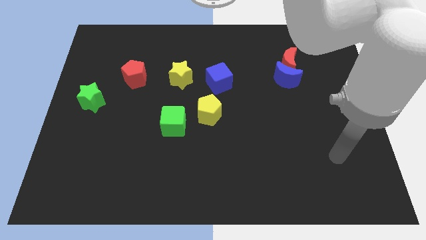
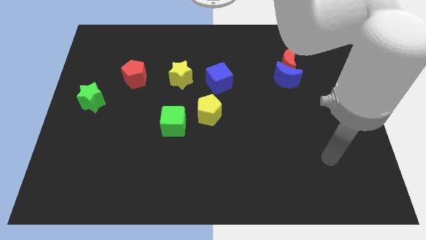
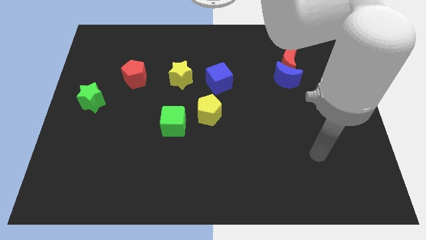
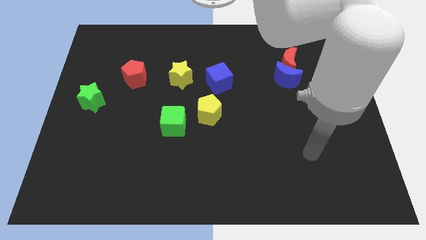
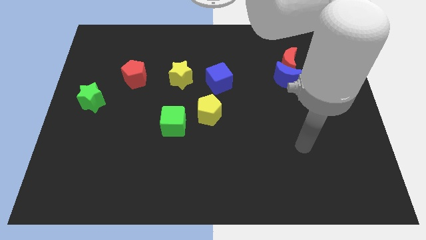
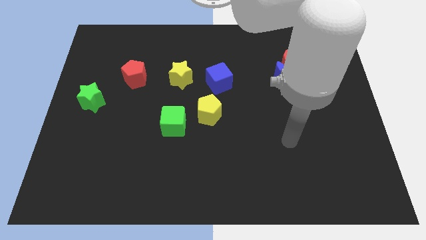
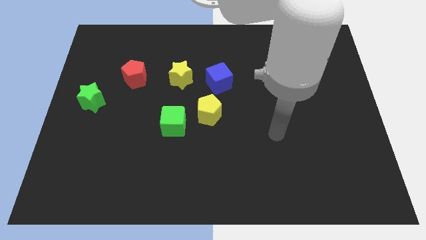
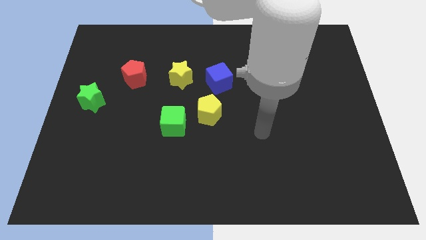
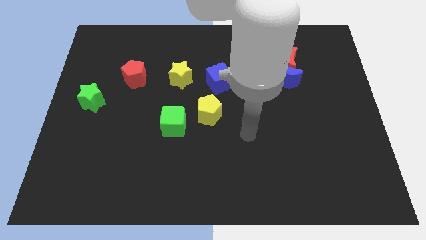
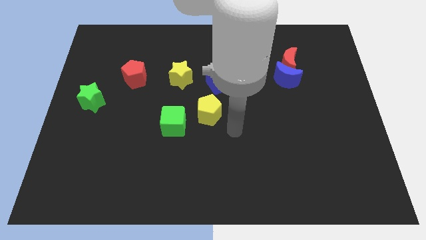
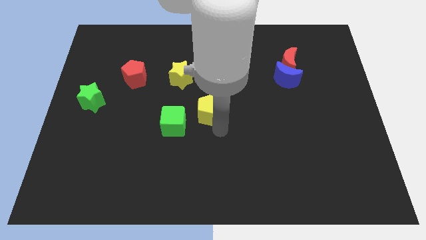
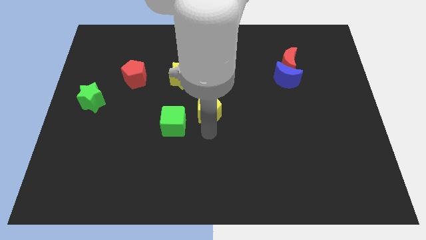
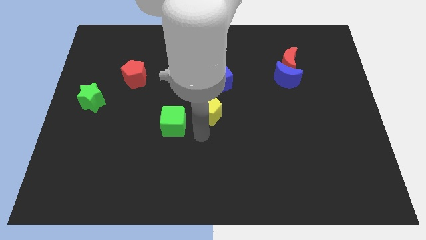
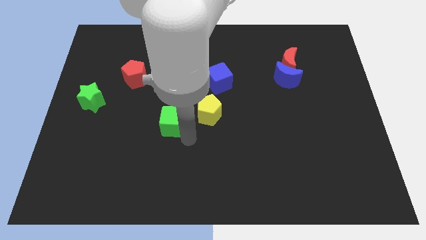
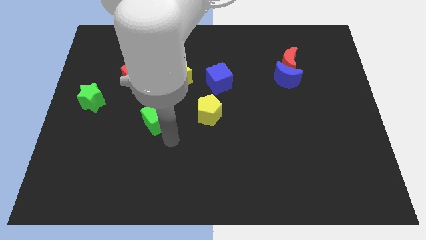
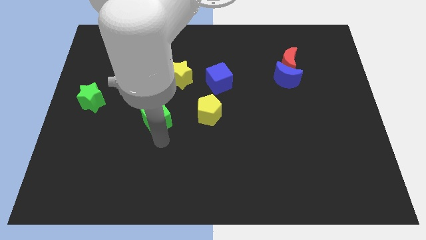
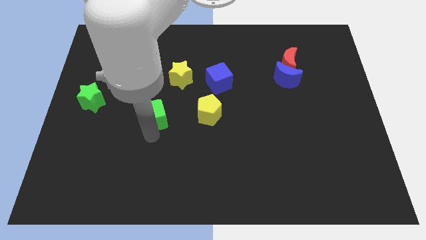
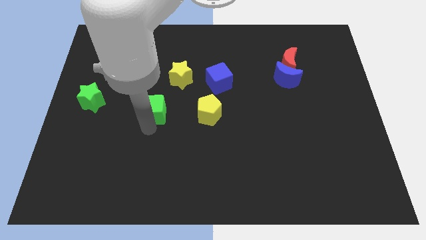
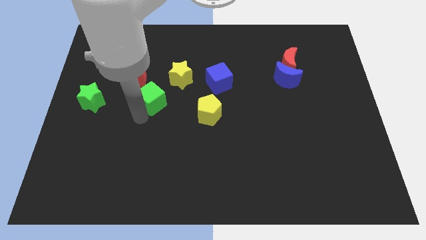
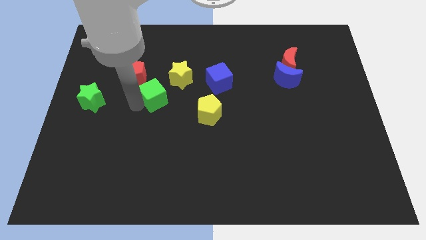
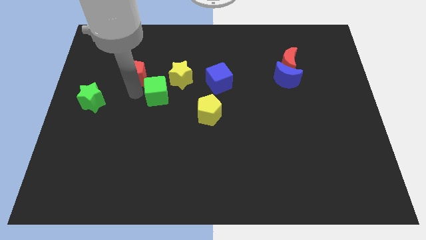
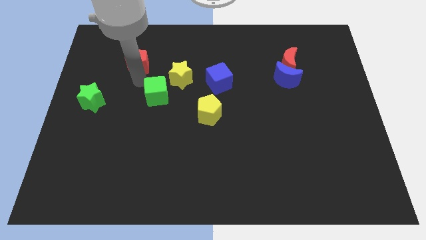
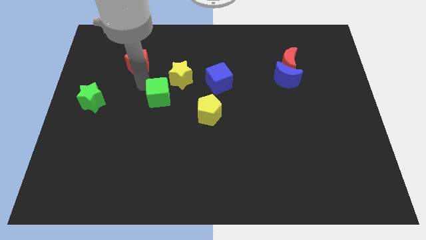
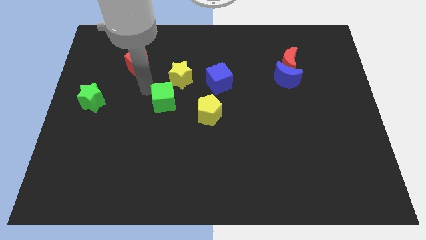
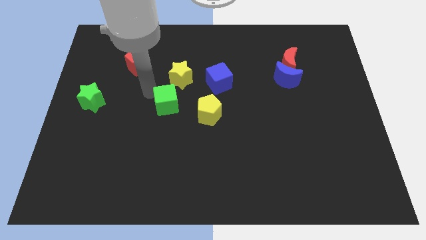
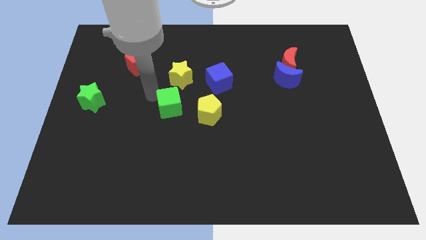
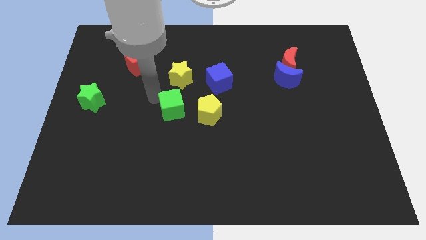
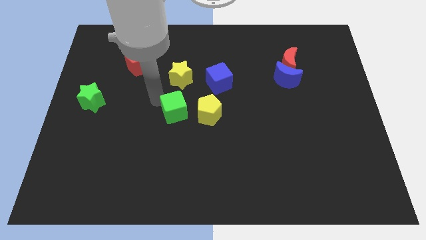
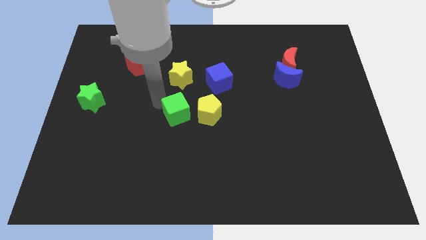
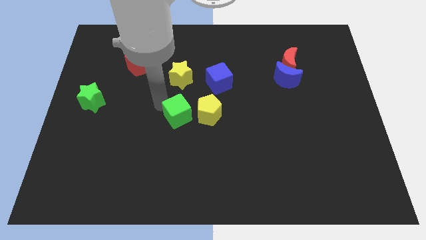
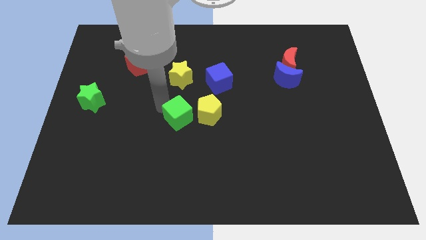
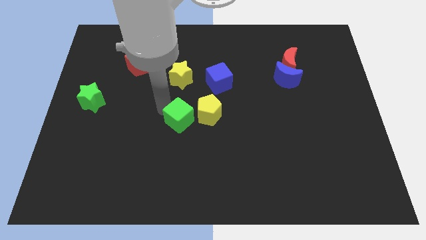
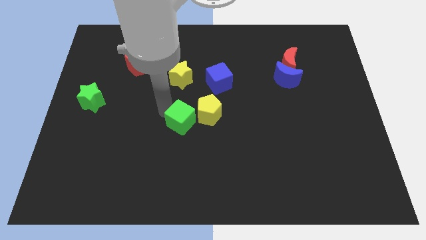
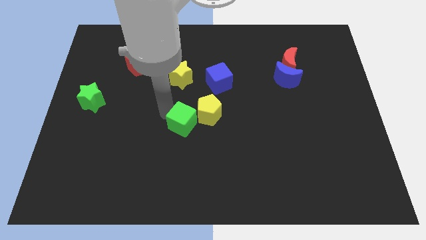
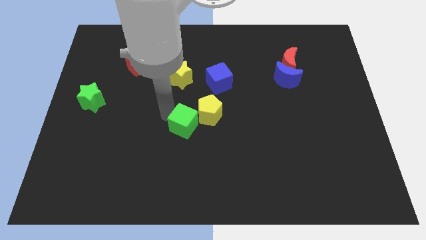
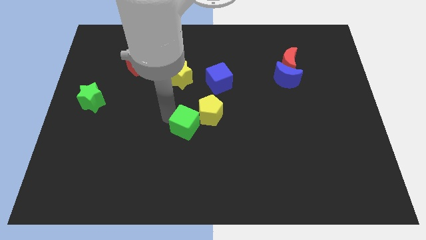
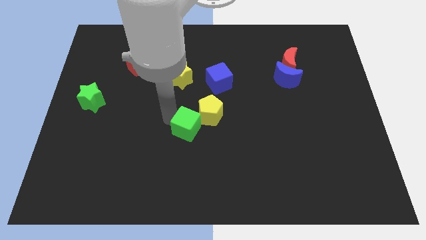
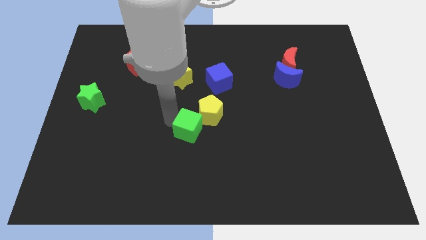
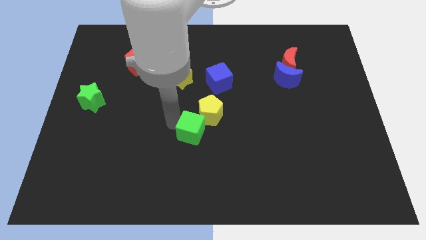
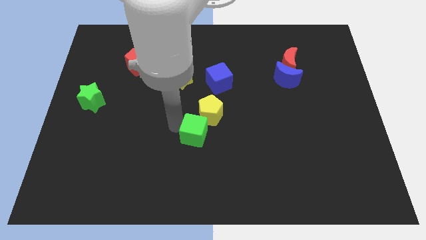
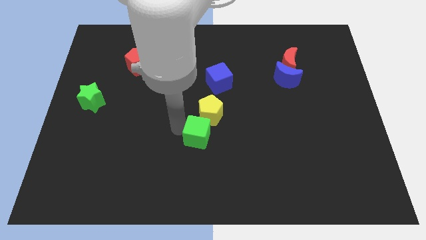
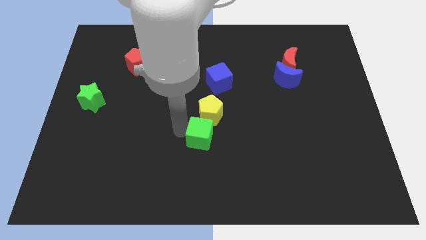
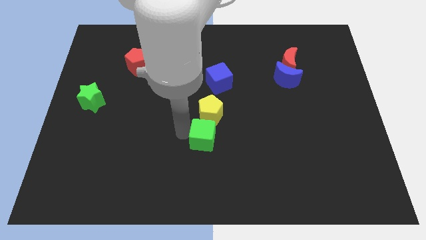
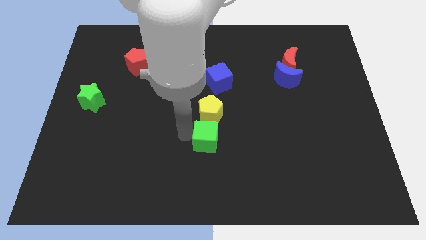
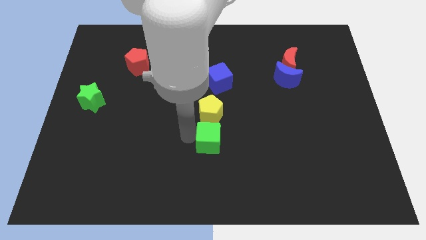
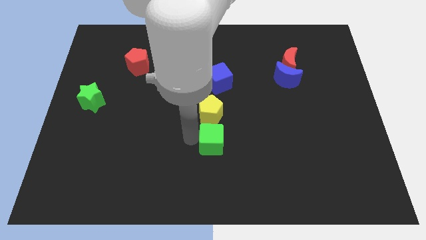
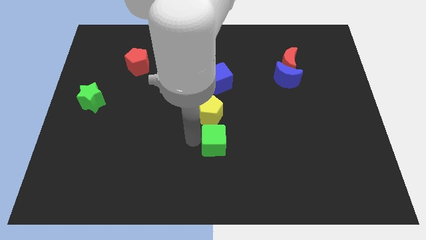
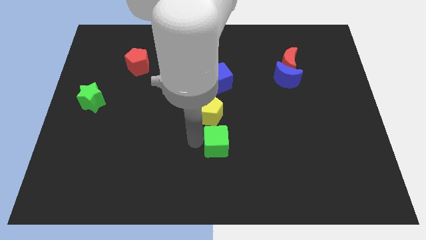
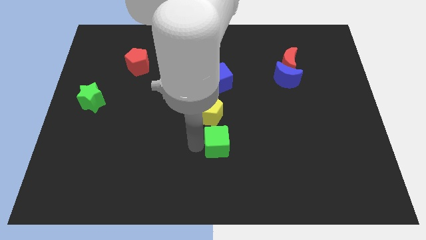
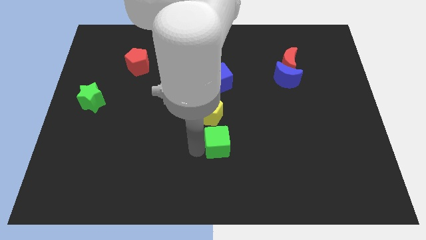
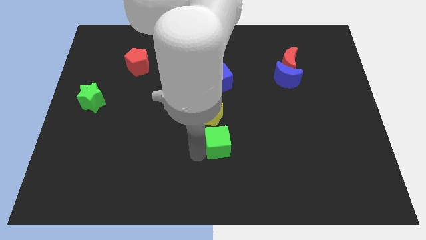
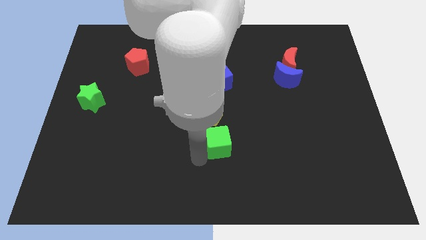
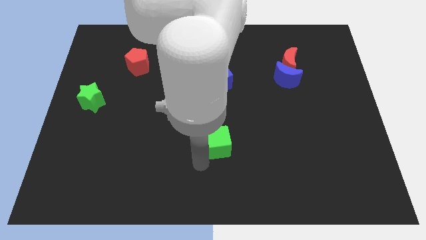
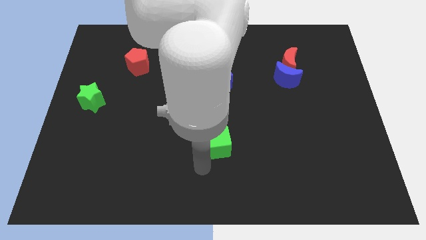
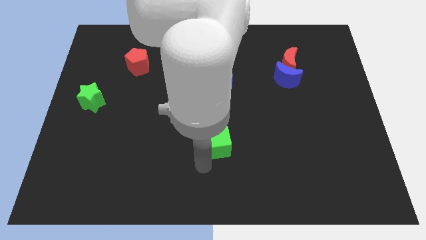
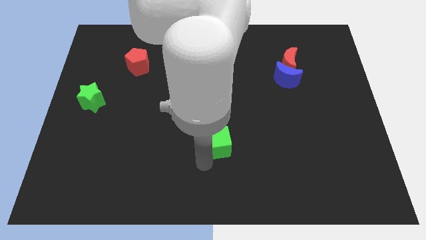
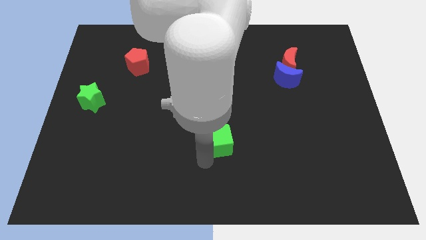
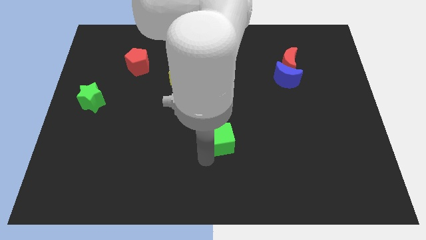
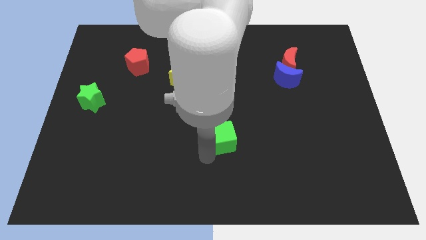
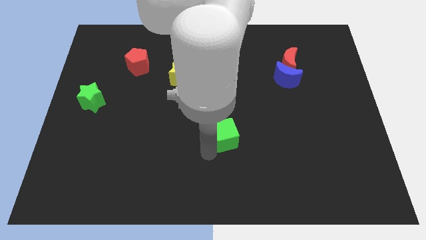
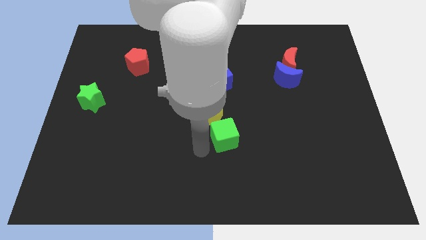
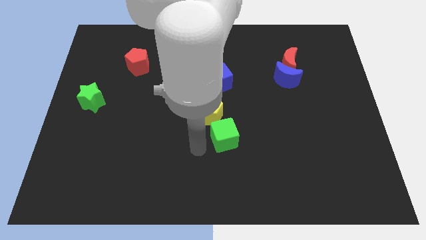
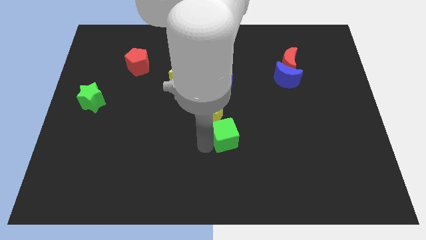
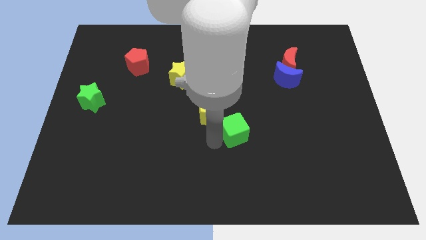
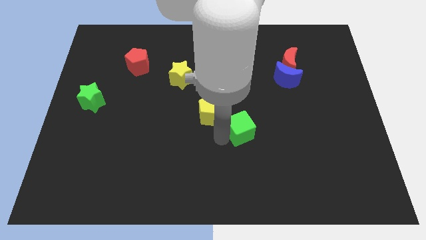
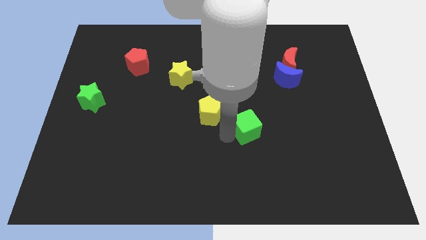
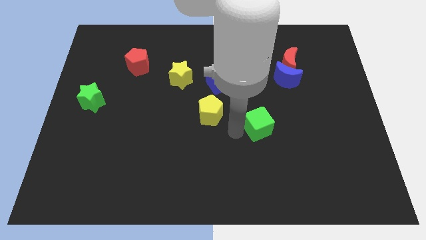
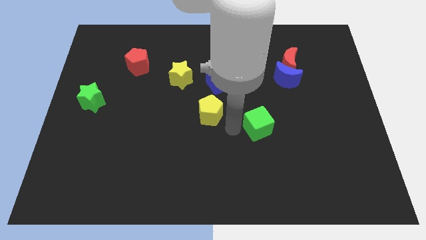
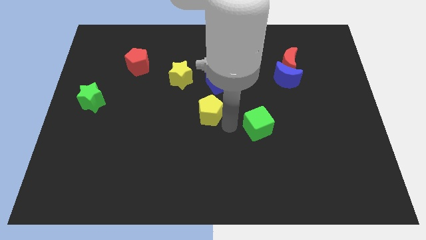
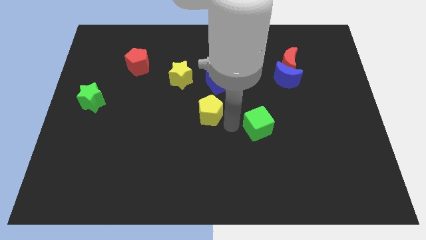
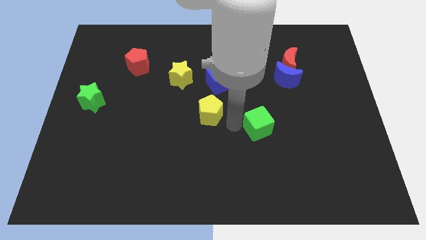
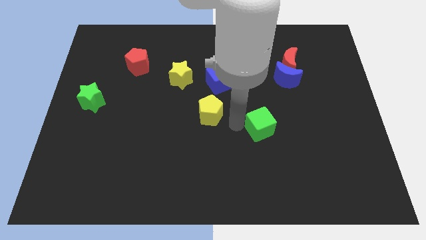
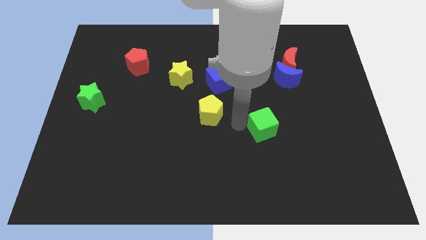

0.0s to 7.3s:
slide the green cube right

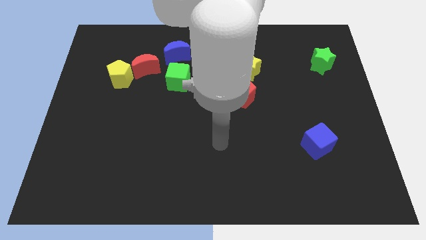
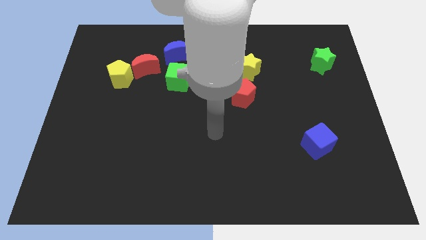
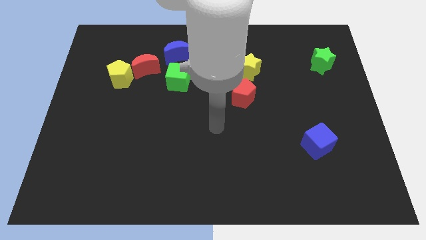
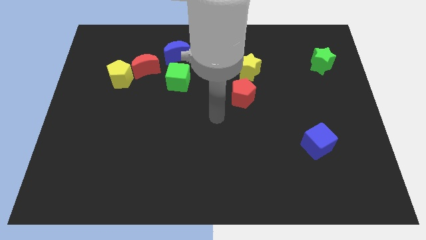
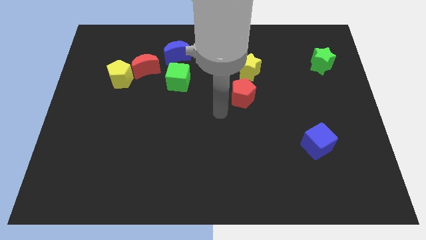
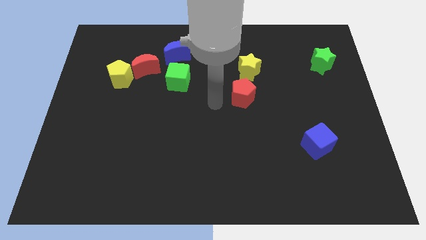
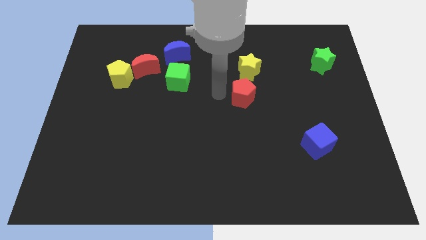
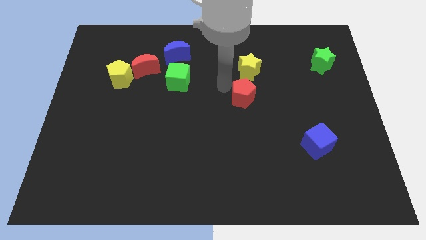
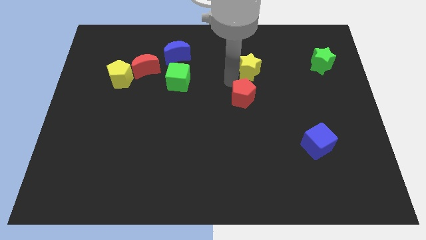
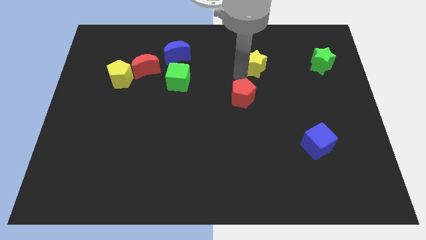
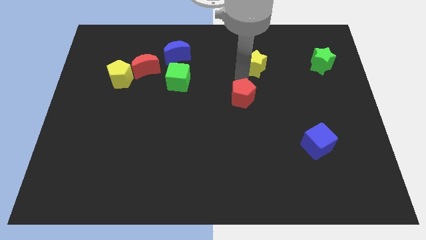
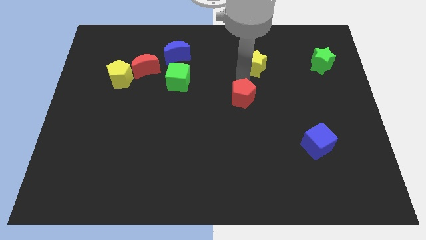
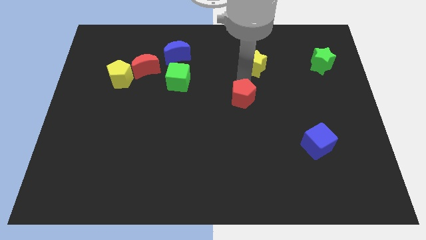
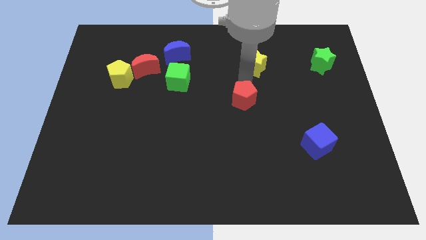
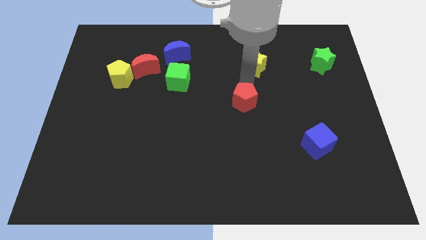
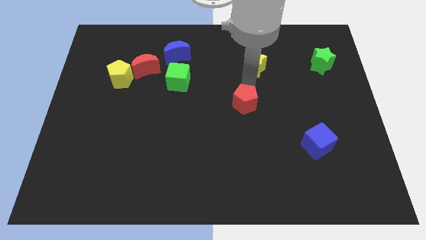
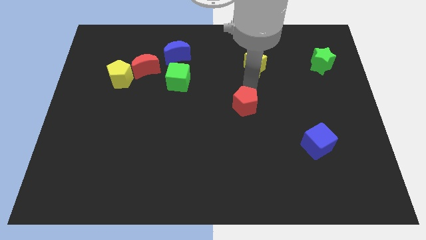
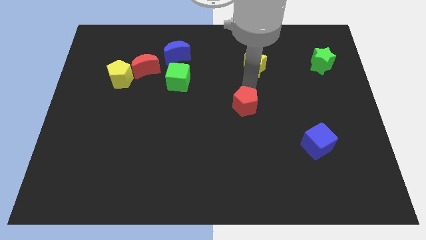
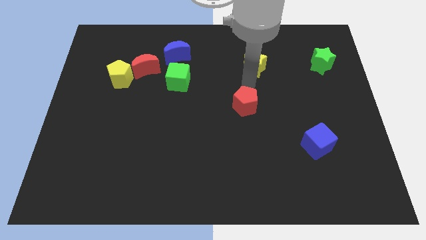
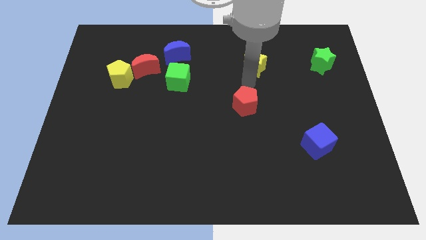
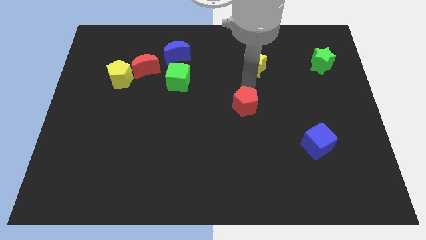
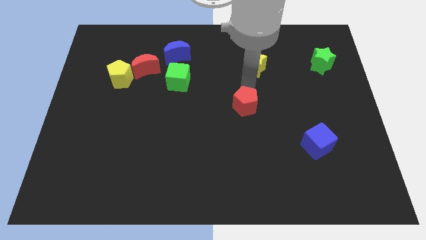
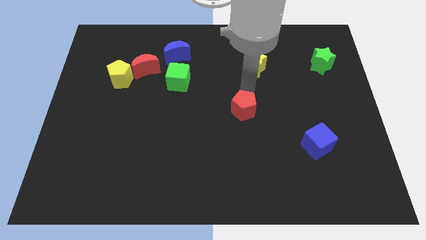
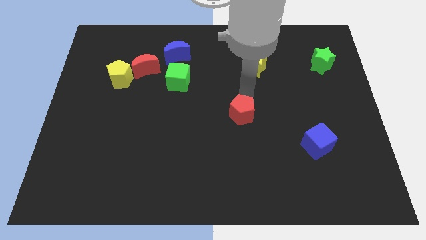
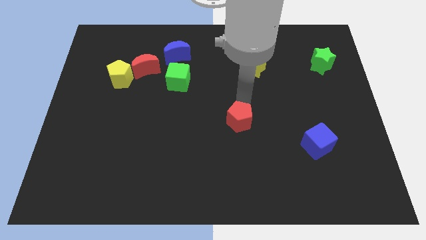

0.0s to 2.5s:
move the red pentagon a little down
